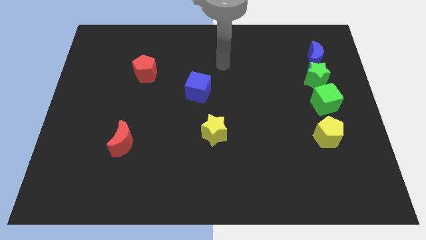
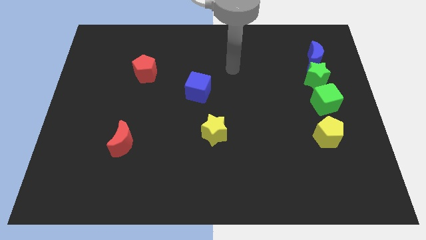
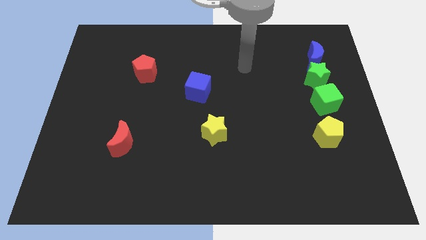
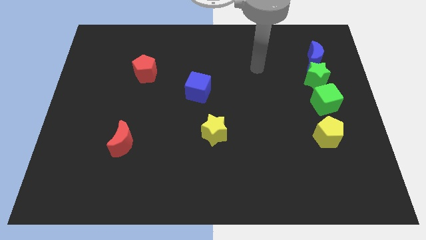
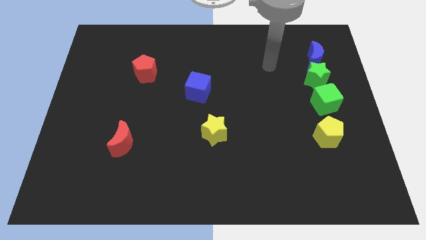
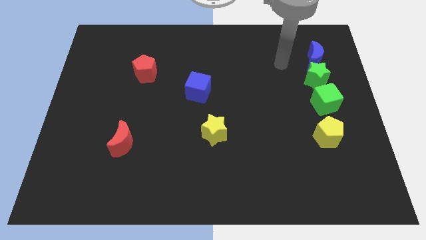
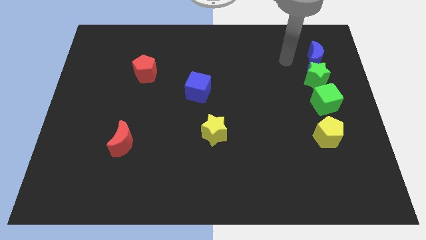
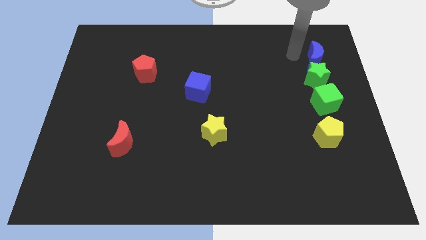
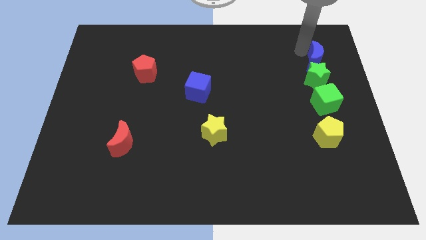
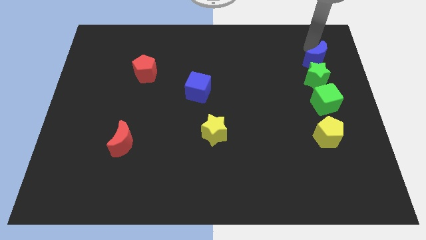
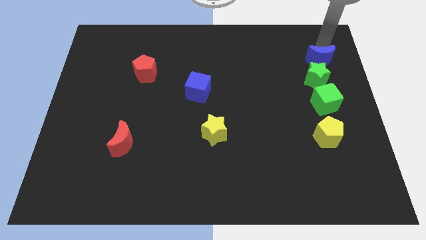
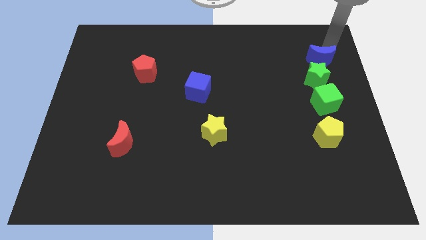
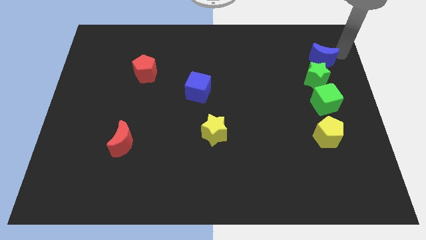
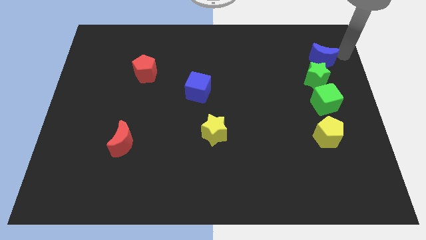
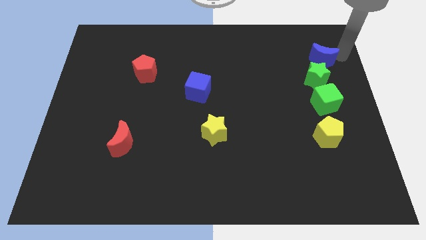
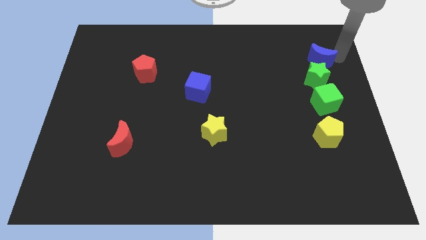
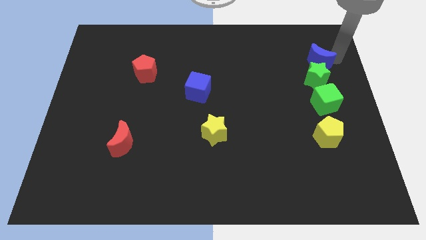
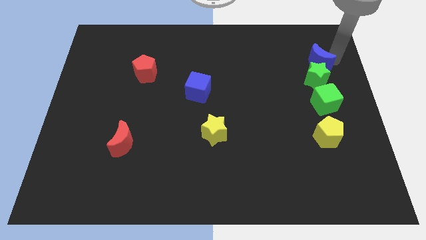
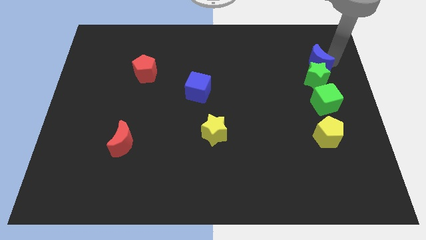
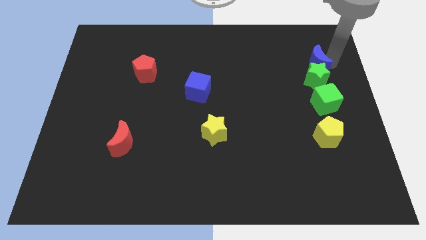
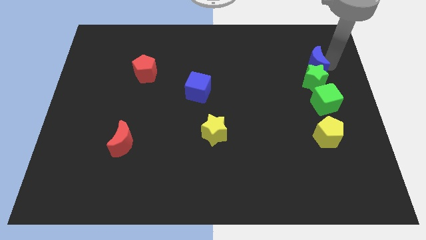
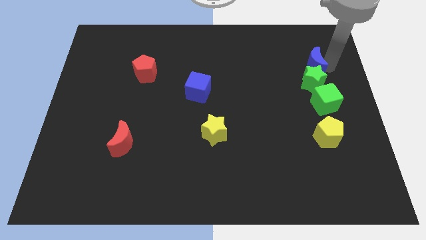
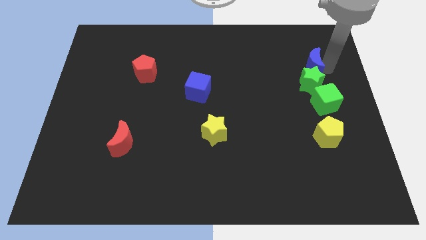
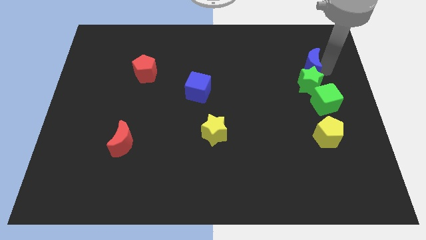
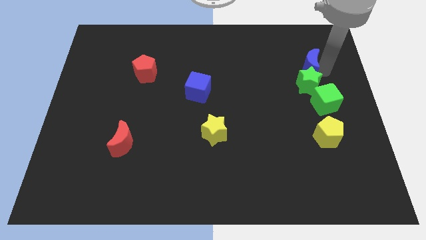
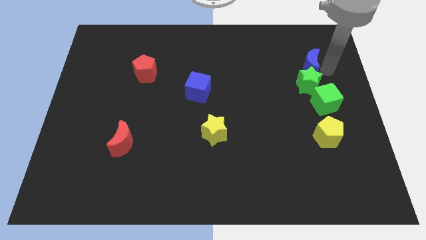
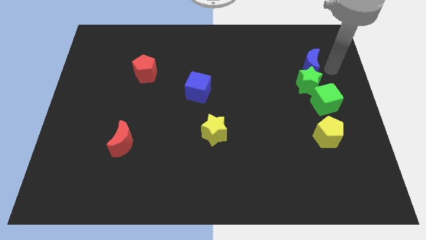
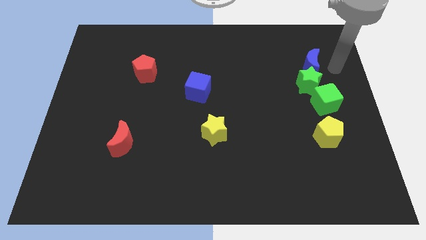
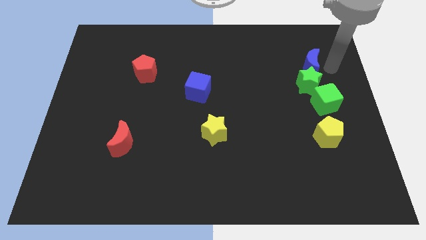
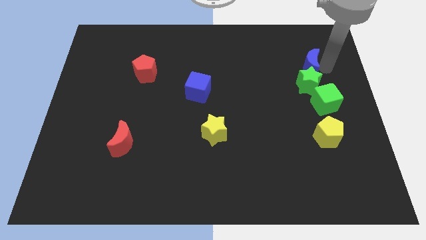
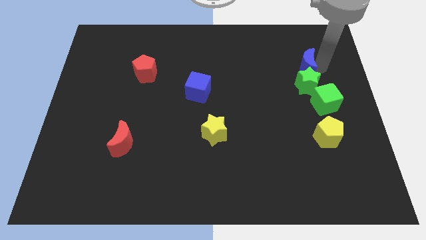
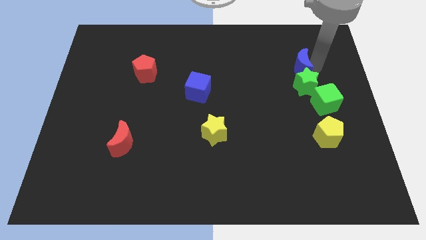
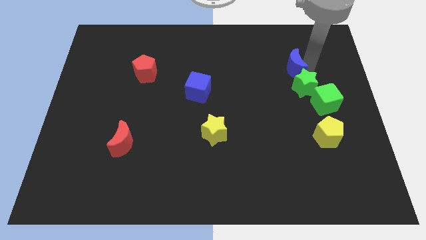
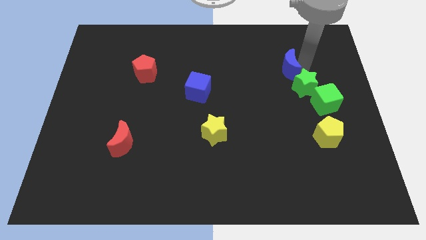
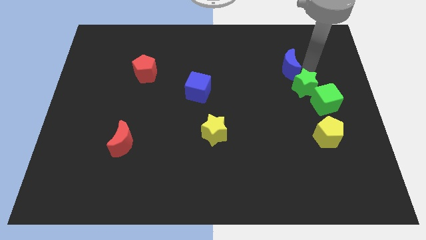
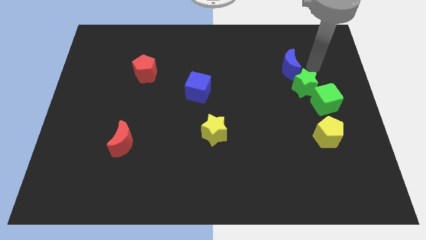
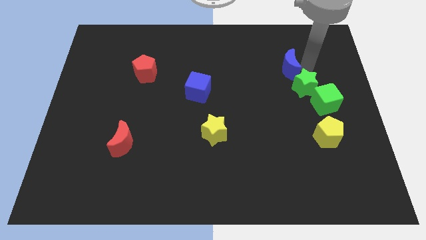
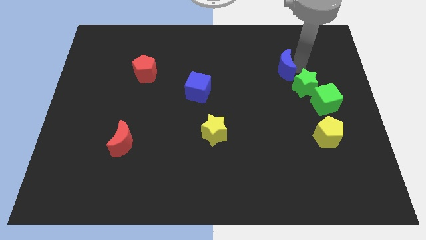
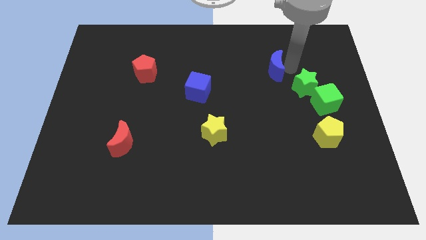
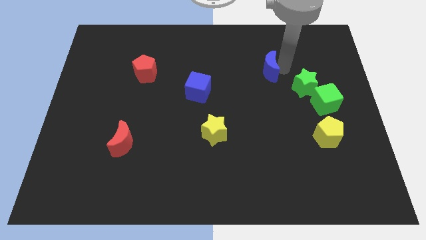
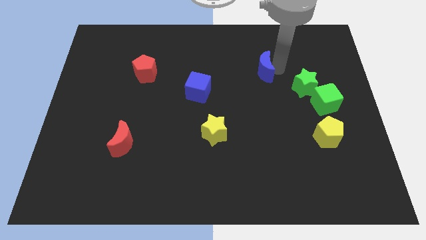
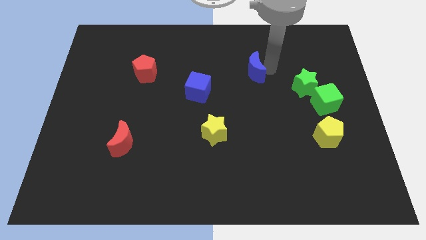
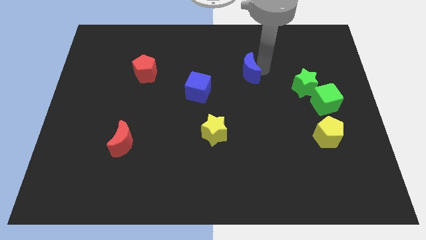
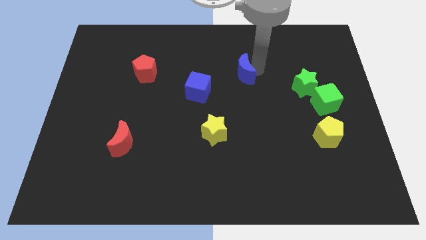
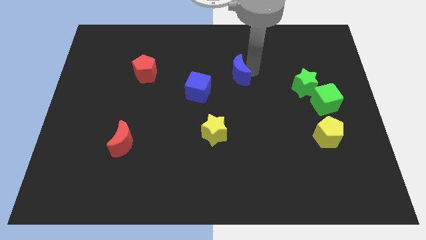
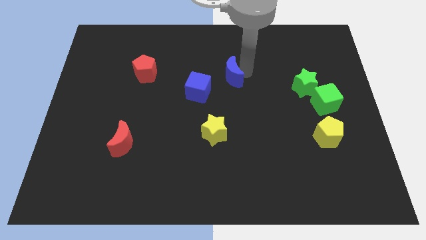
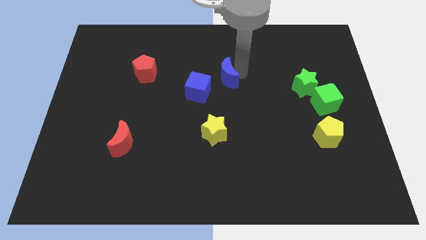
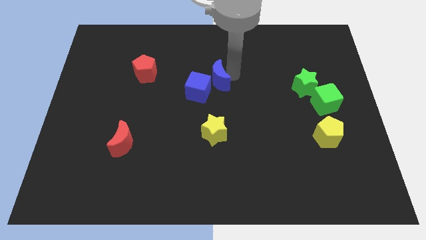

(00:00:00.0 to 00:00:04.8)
slide the blue moon close to the blue cube

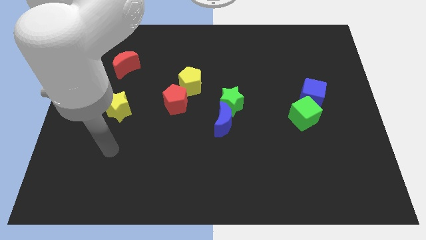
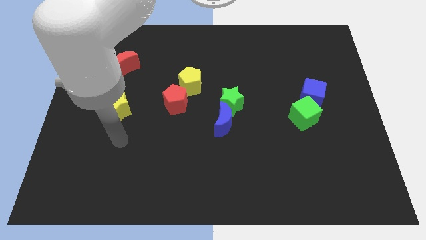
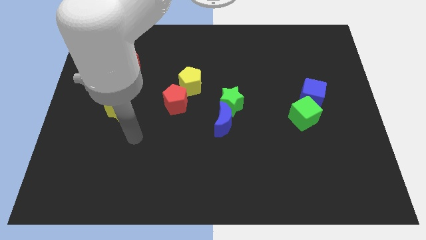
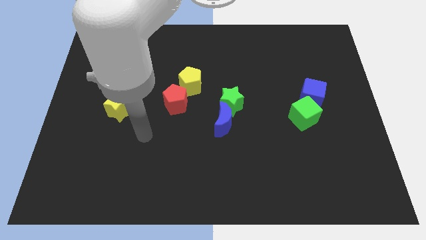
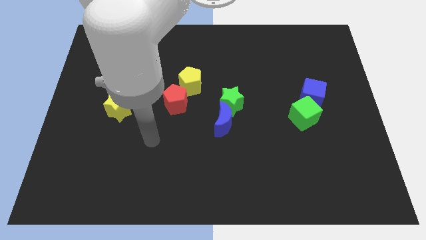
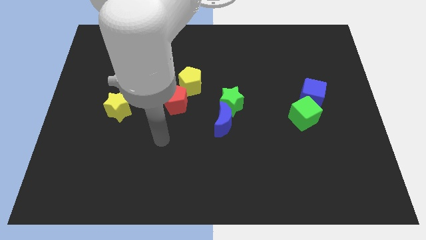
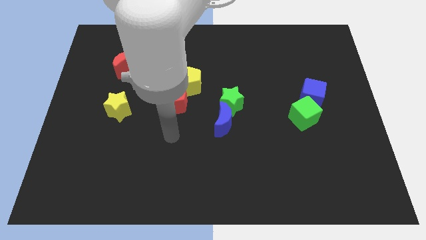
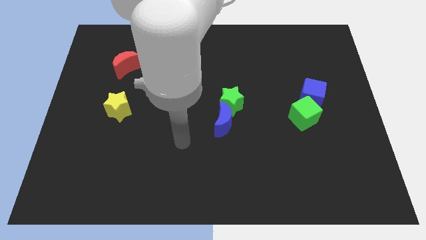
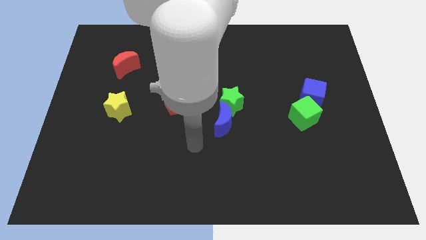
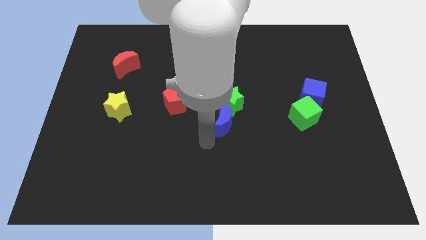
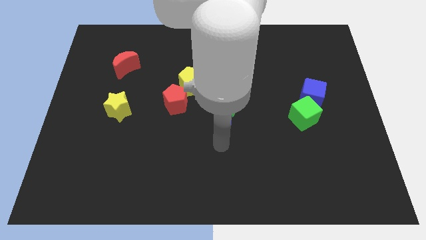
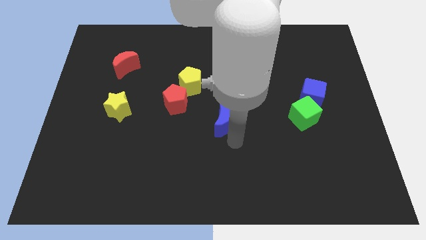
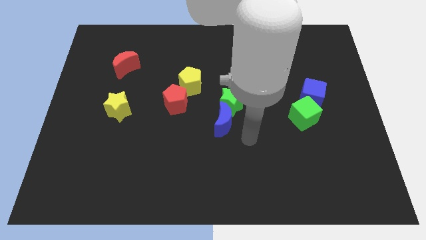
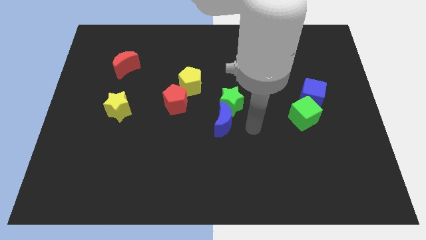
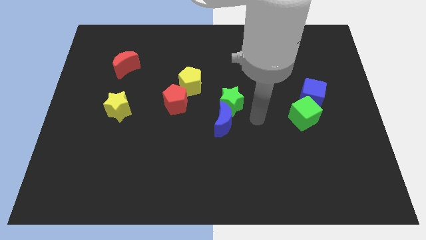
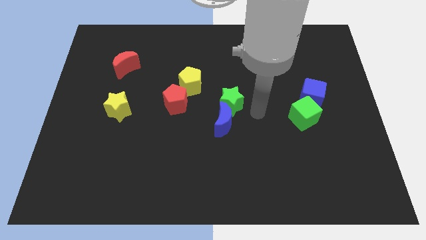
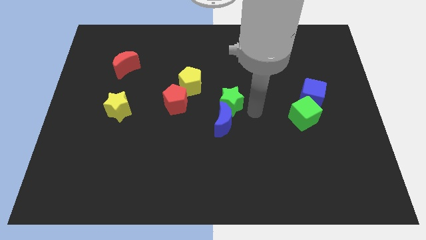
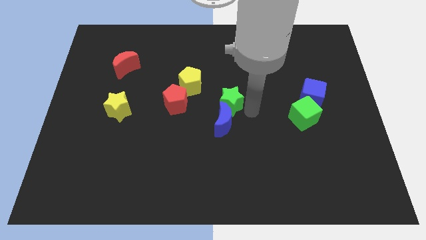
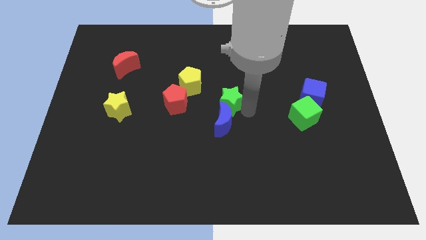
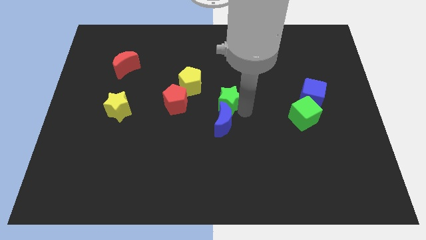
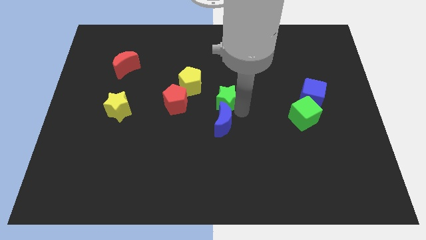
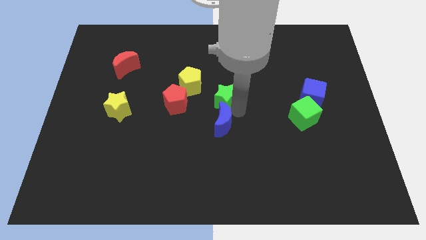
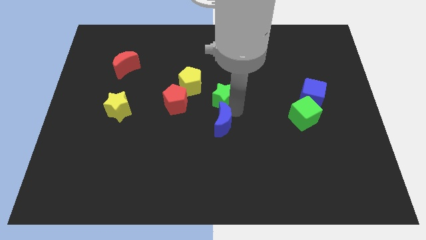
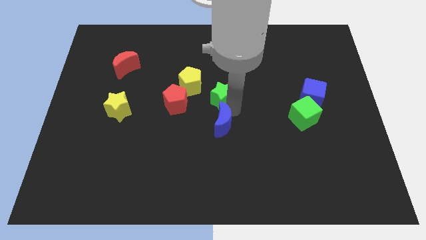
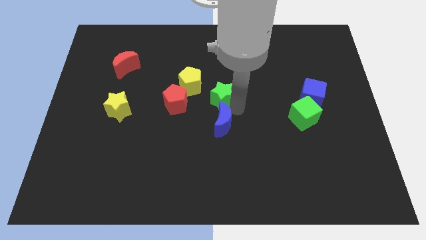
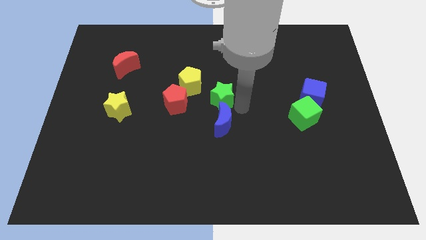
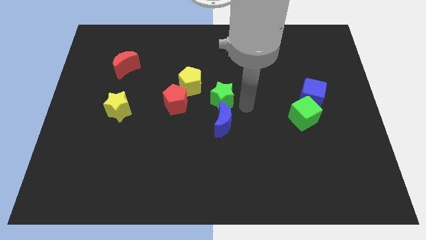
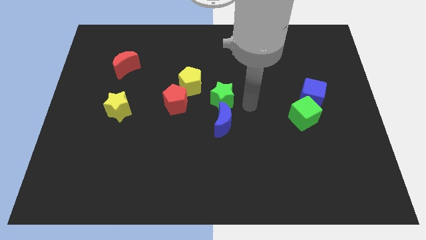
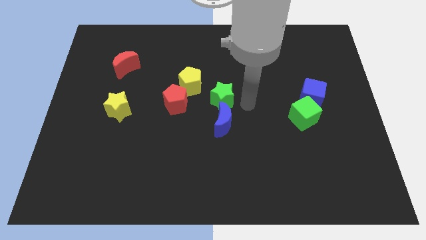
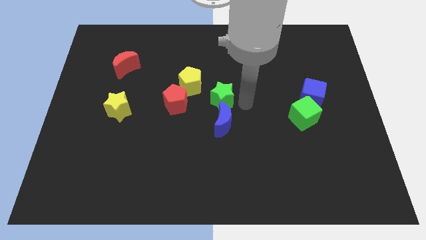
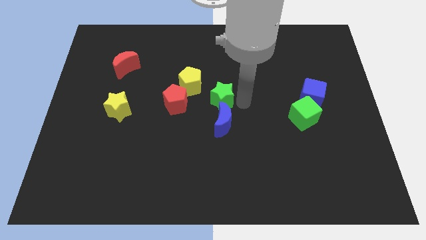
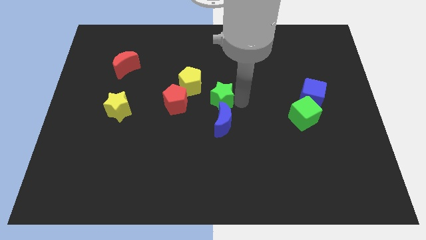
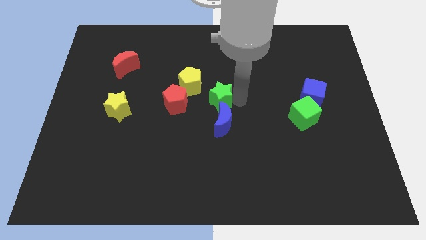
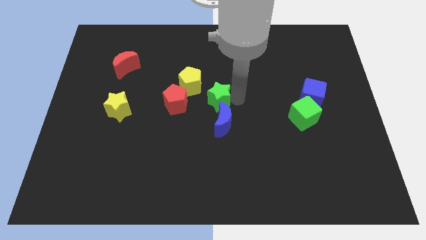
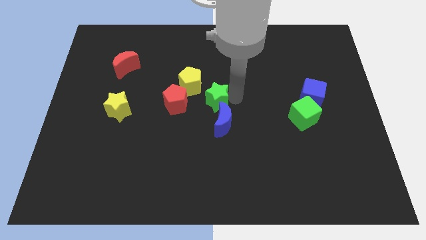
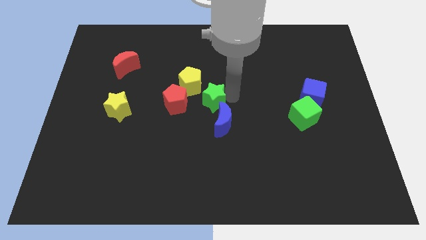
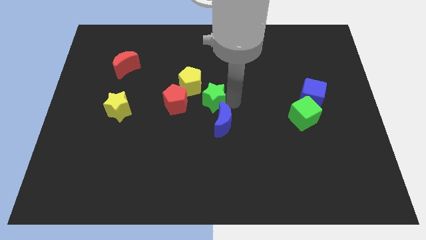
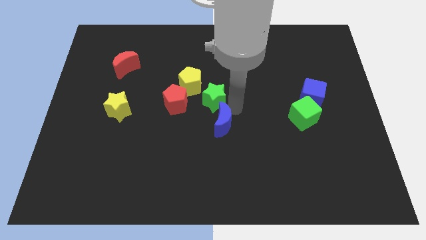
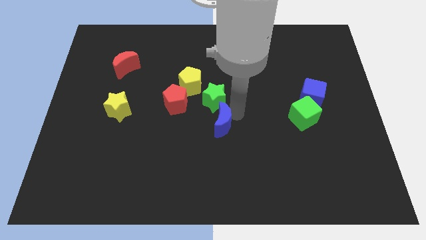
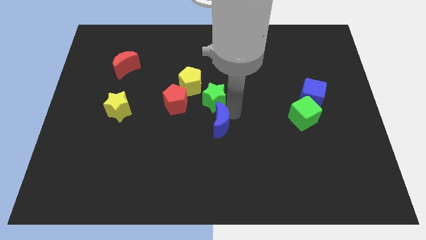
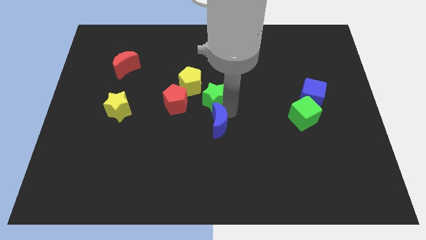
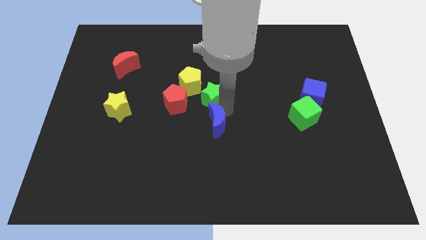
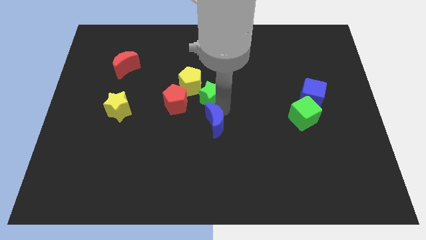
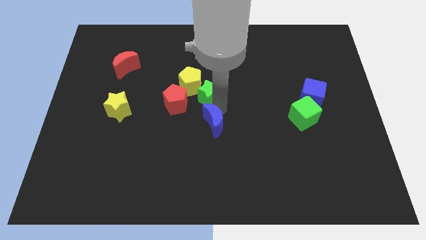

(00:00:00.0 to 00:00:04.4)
push the green star next to the yellow pentagon
